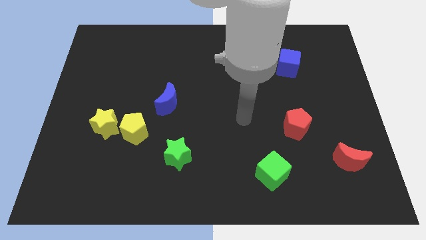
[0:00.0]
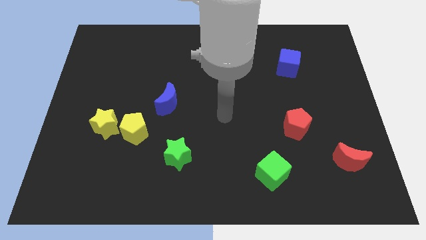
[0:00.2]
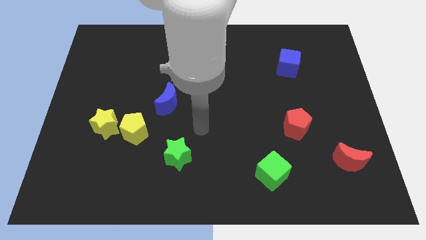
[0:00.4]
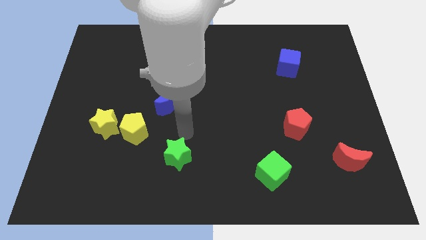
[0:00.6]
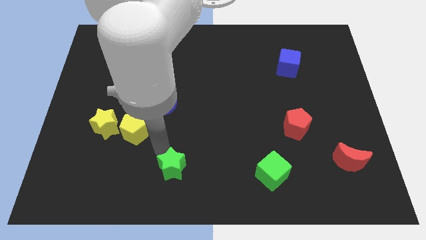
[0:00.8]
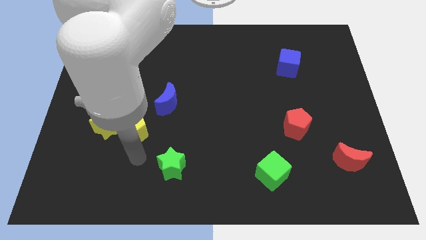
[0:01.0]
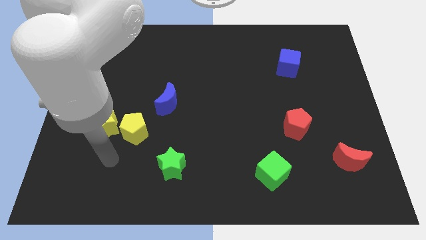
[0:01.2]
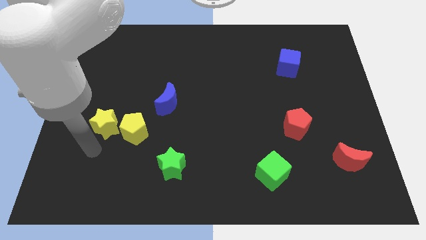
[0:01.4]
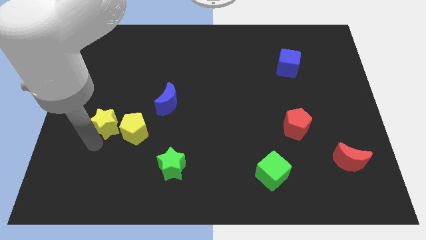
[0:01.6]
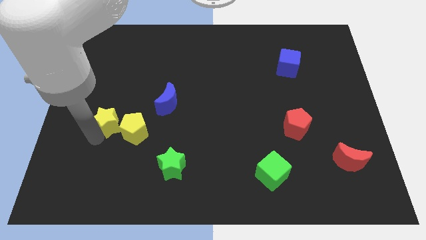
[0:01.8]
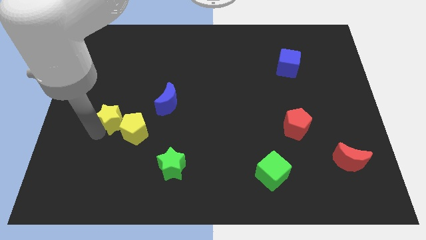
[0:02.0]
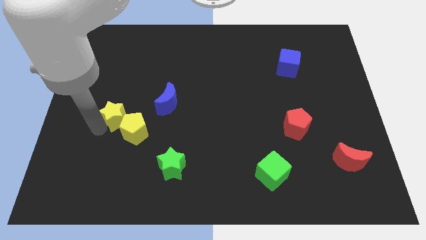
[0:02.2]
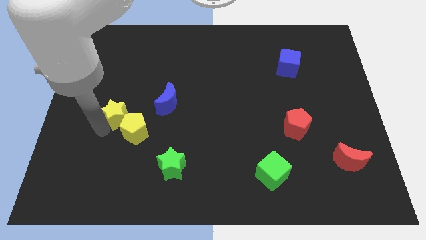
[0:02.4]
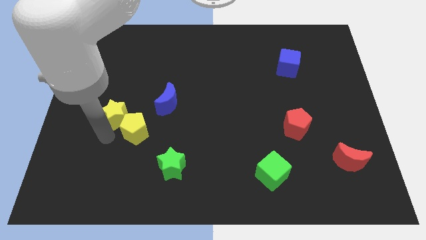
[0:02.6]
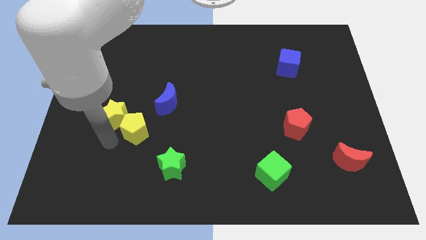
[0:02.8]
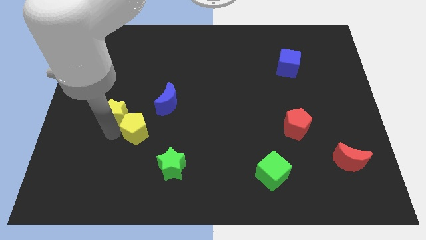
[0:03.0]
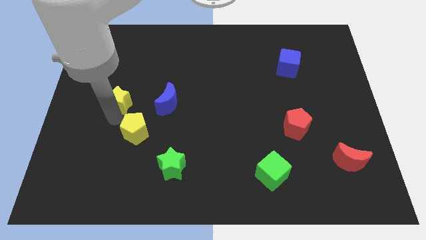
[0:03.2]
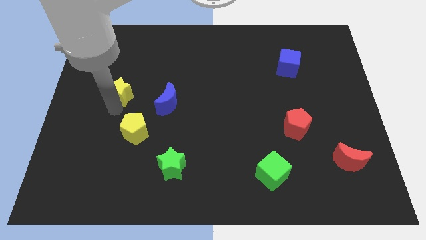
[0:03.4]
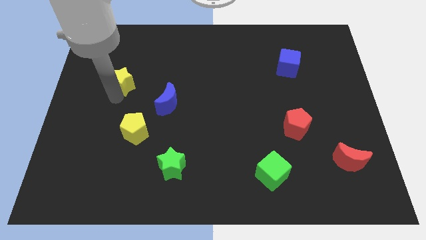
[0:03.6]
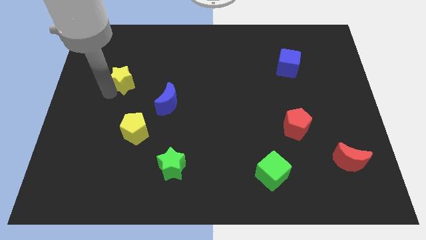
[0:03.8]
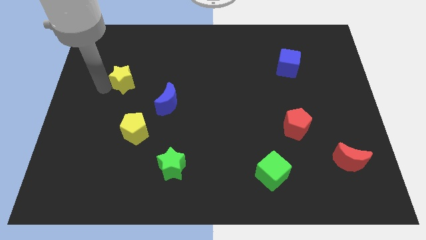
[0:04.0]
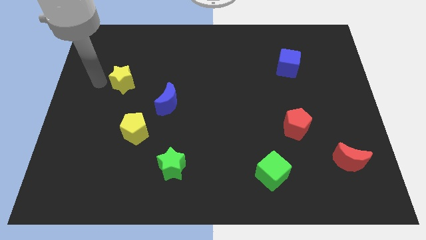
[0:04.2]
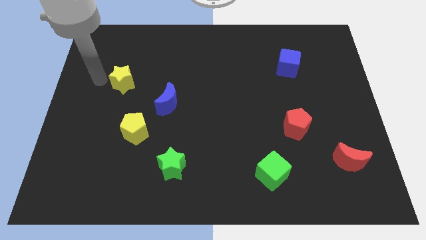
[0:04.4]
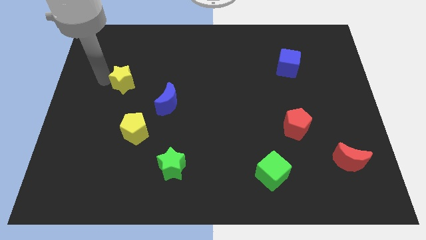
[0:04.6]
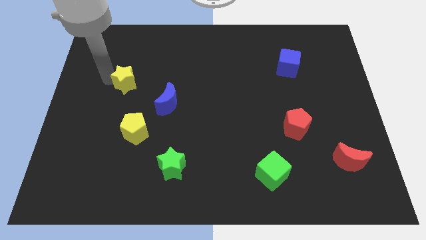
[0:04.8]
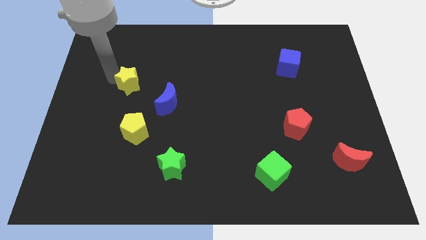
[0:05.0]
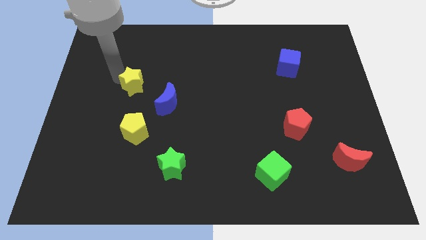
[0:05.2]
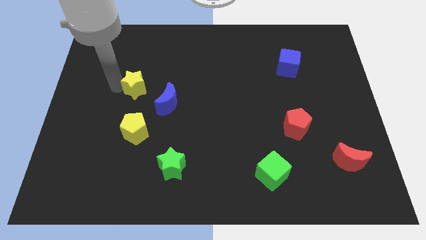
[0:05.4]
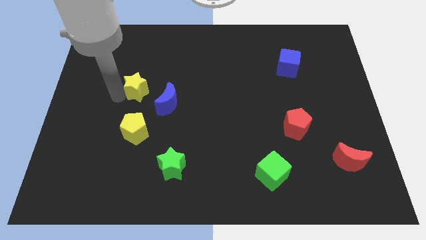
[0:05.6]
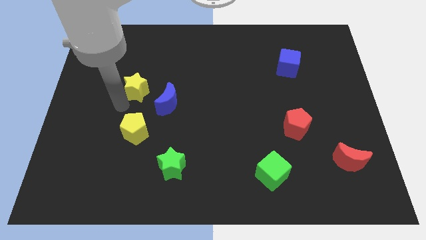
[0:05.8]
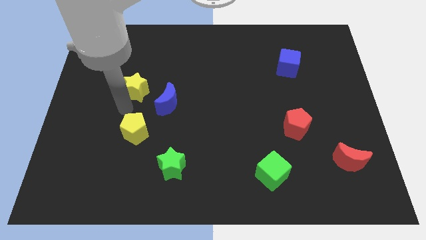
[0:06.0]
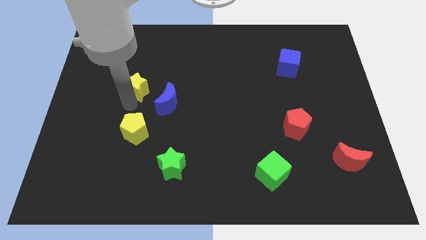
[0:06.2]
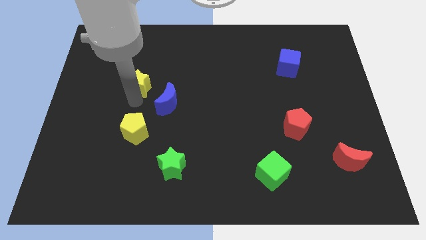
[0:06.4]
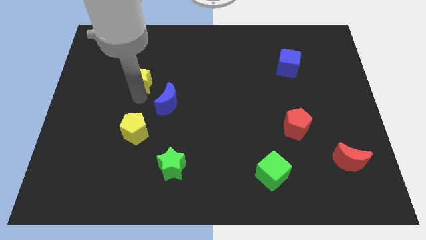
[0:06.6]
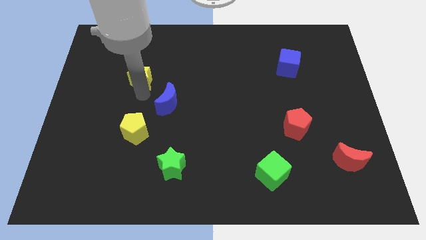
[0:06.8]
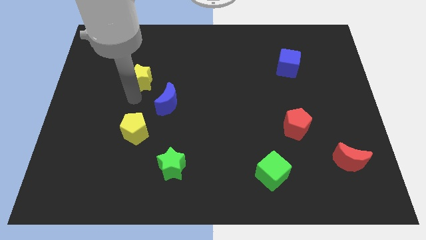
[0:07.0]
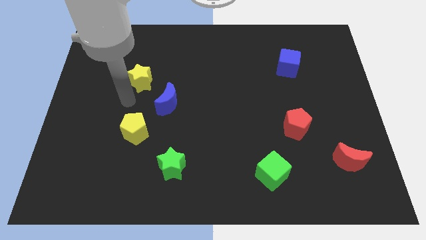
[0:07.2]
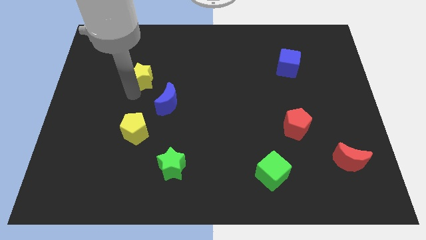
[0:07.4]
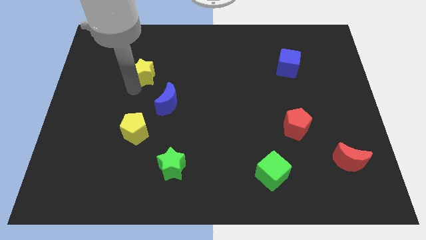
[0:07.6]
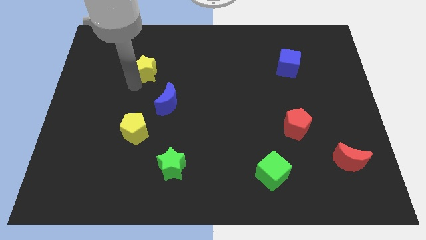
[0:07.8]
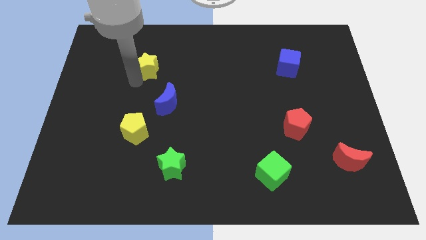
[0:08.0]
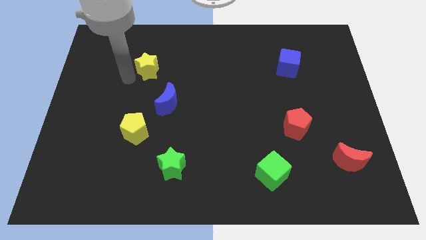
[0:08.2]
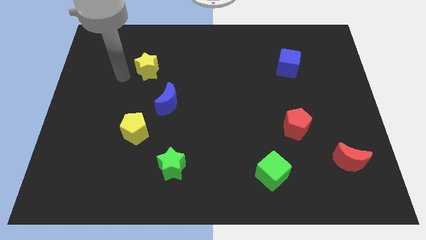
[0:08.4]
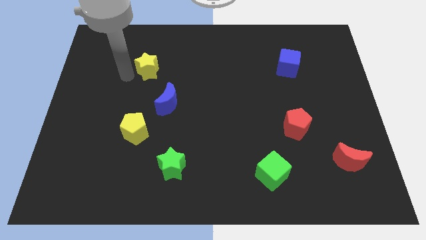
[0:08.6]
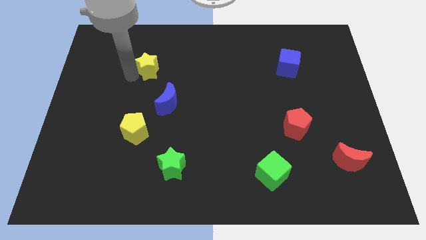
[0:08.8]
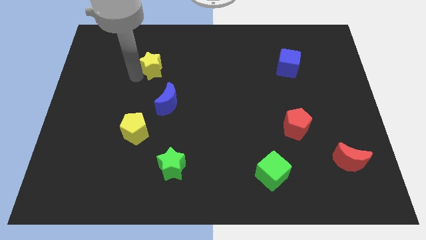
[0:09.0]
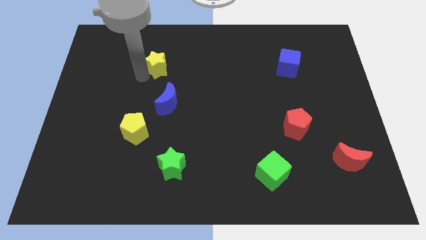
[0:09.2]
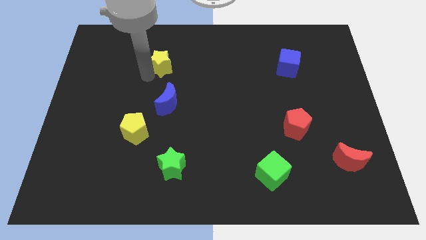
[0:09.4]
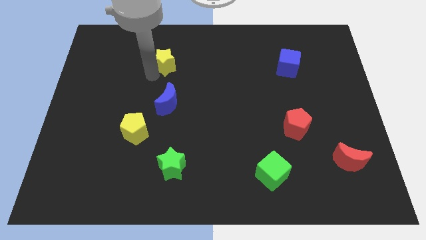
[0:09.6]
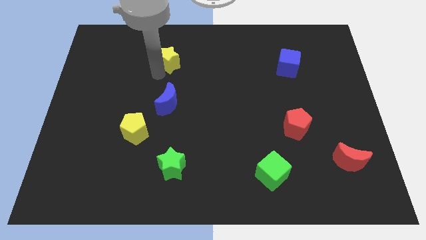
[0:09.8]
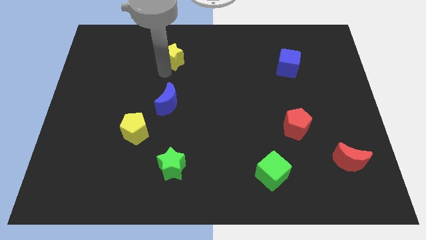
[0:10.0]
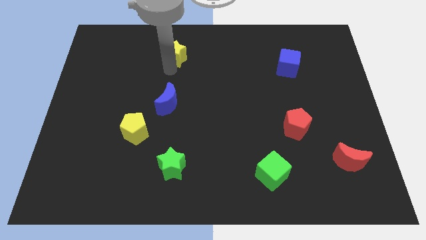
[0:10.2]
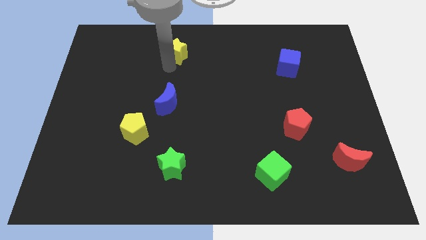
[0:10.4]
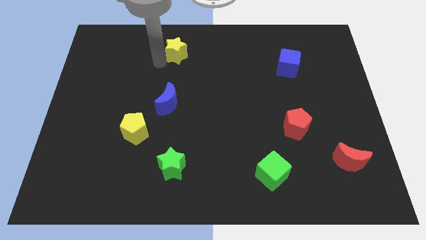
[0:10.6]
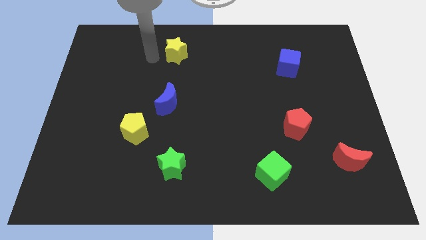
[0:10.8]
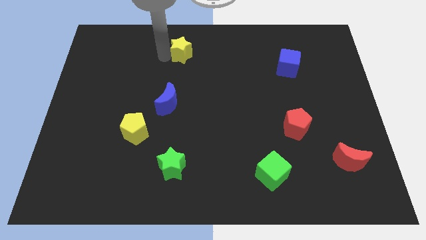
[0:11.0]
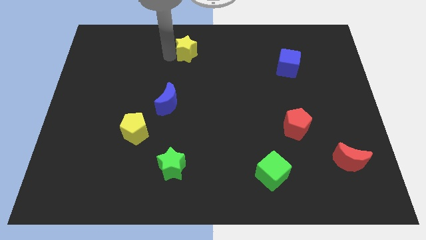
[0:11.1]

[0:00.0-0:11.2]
move the yellow star to the top side
